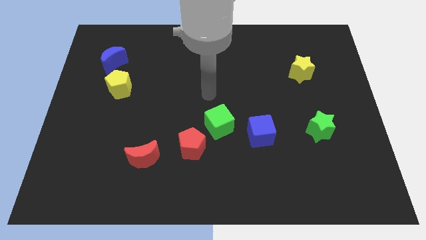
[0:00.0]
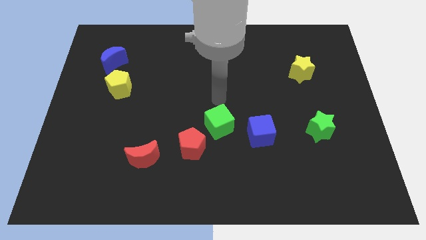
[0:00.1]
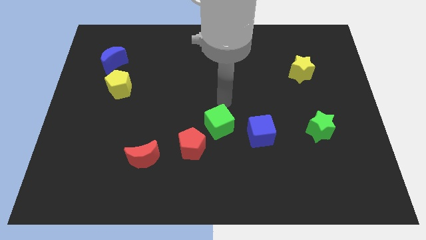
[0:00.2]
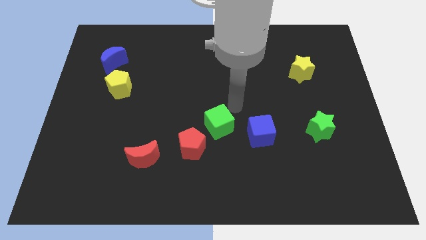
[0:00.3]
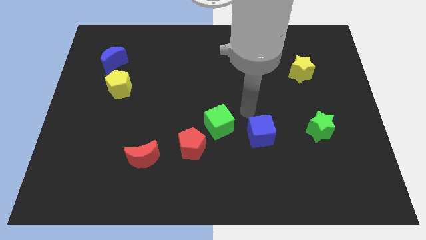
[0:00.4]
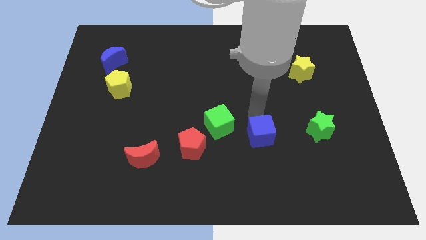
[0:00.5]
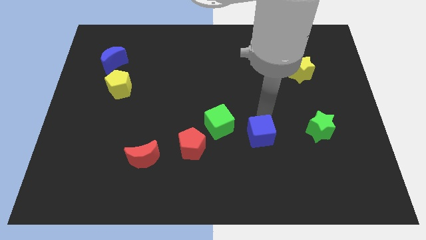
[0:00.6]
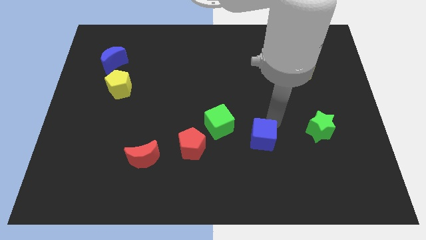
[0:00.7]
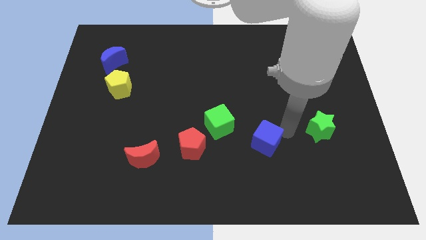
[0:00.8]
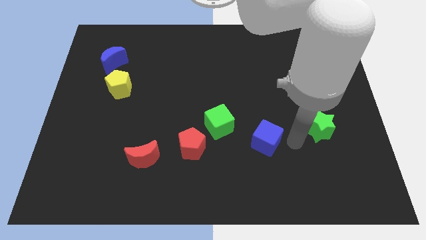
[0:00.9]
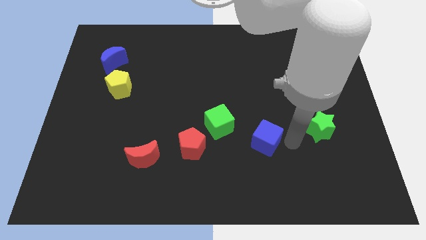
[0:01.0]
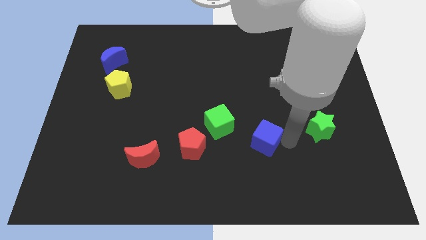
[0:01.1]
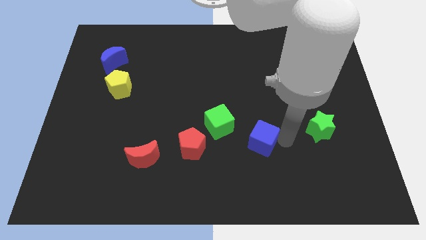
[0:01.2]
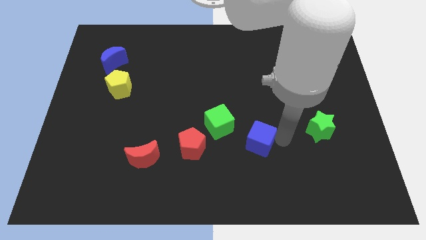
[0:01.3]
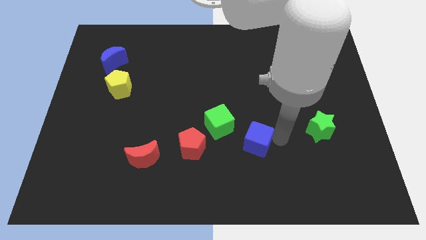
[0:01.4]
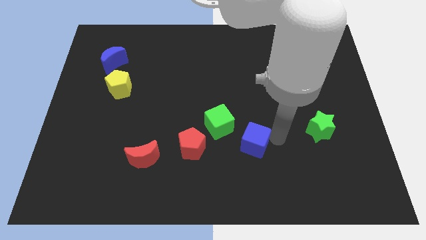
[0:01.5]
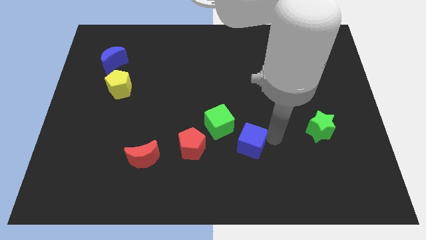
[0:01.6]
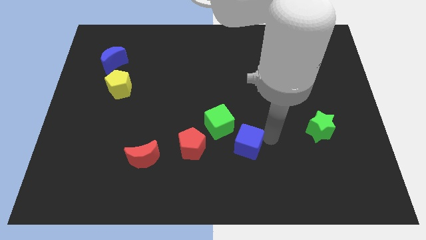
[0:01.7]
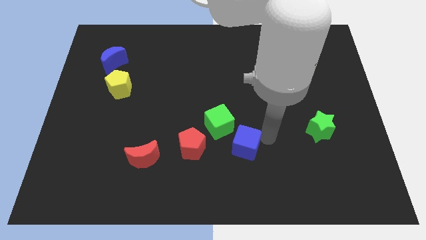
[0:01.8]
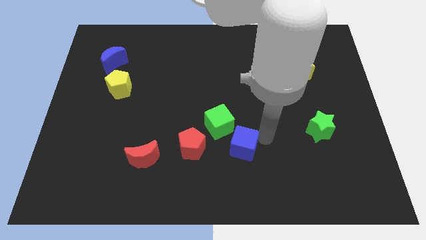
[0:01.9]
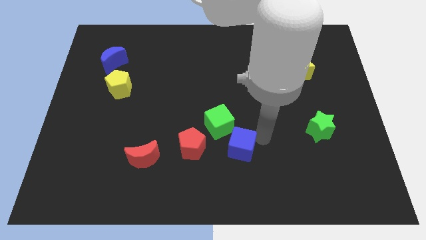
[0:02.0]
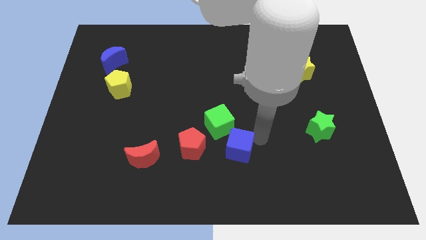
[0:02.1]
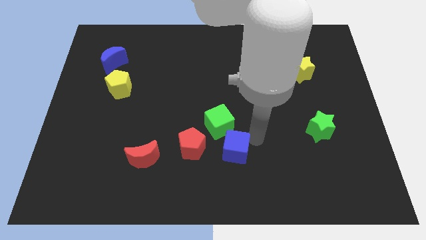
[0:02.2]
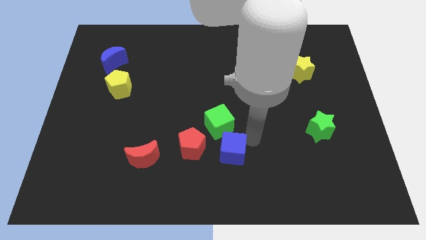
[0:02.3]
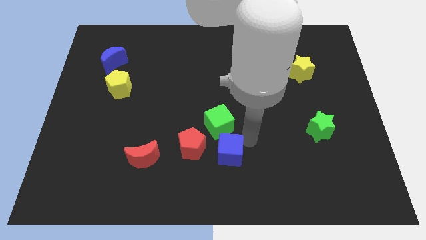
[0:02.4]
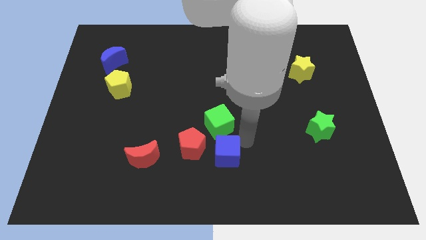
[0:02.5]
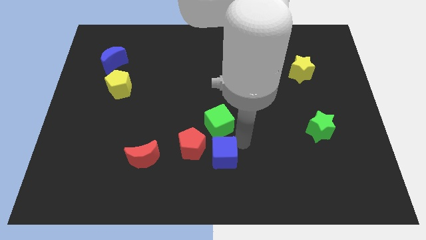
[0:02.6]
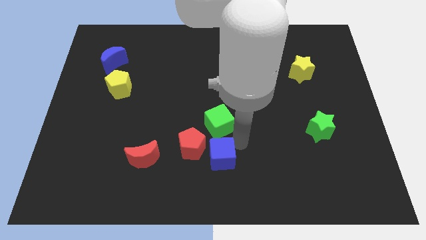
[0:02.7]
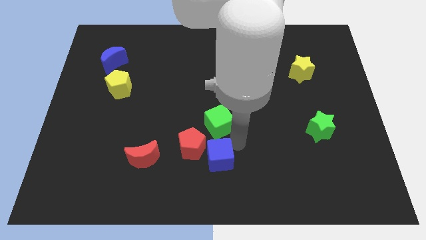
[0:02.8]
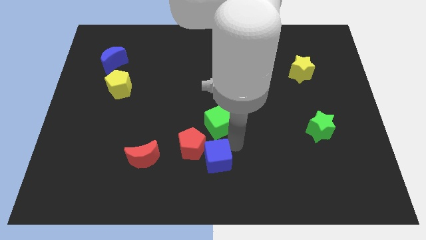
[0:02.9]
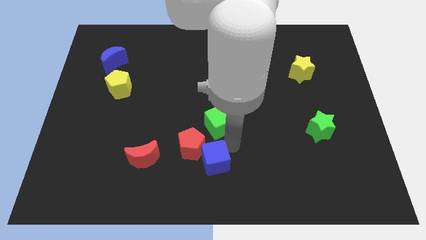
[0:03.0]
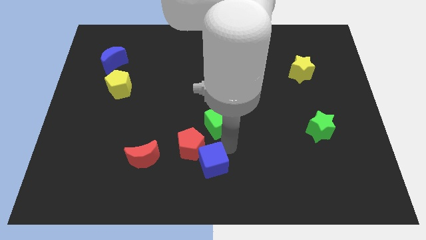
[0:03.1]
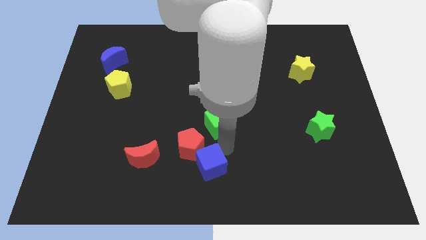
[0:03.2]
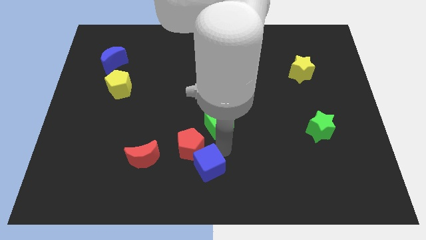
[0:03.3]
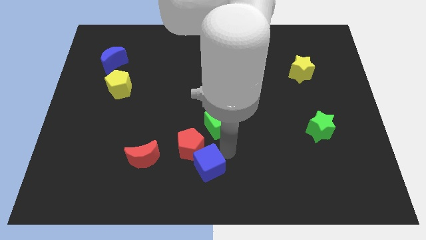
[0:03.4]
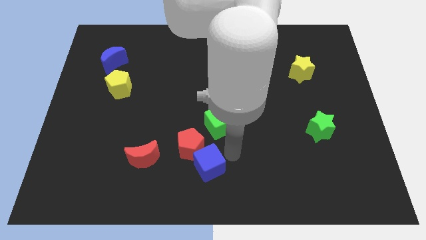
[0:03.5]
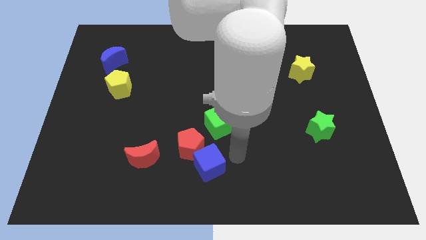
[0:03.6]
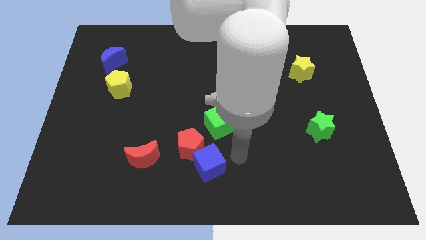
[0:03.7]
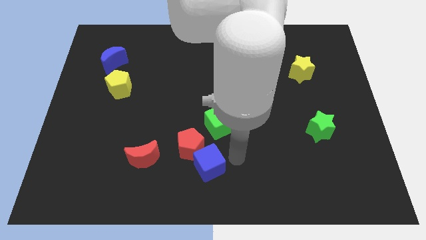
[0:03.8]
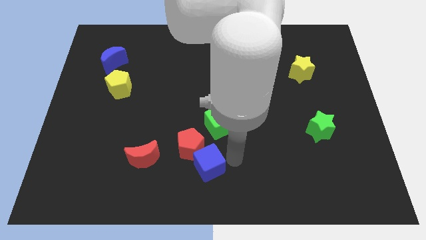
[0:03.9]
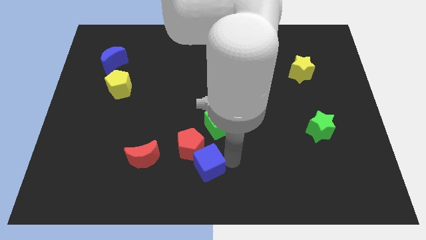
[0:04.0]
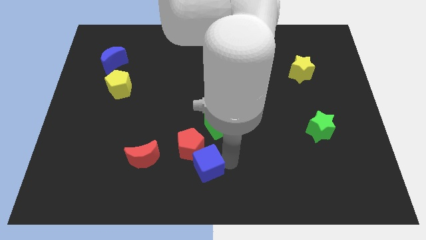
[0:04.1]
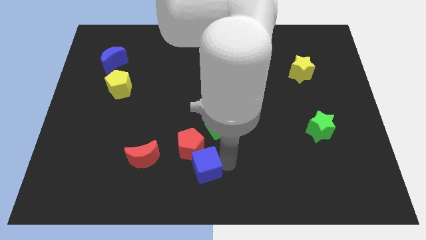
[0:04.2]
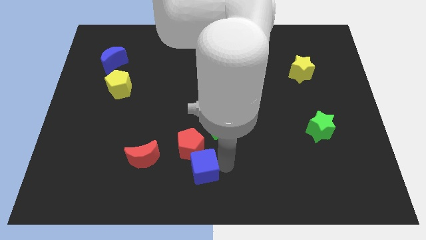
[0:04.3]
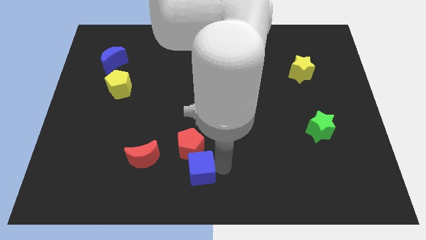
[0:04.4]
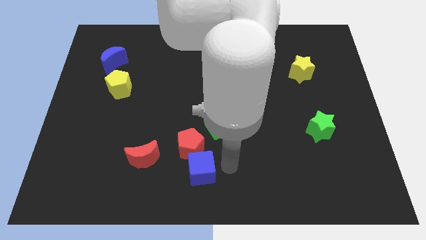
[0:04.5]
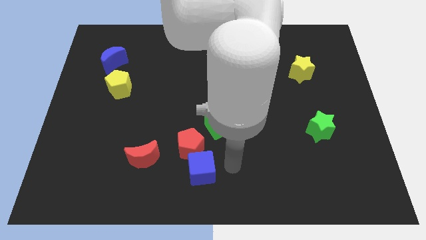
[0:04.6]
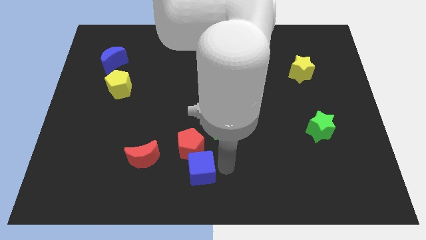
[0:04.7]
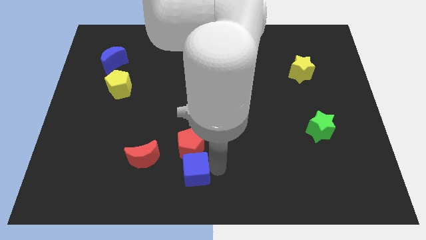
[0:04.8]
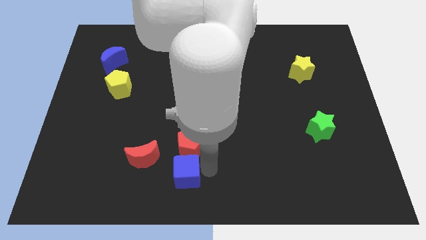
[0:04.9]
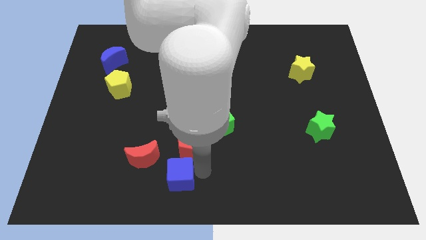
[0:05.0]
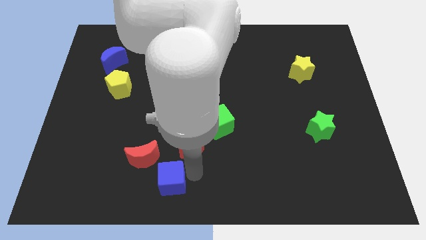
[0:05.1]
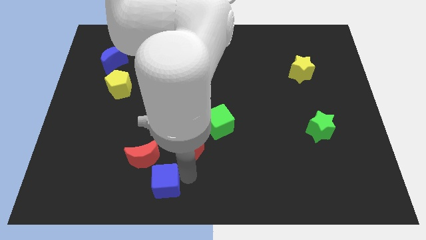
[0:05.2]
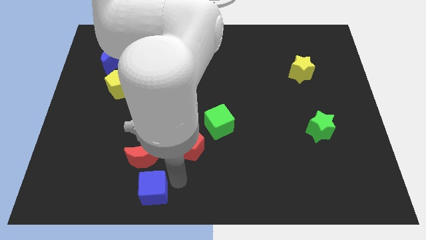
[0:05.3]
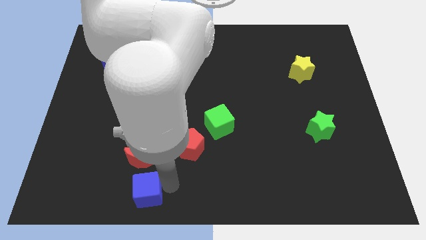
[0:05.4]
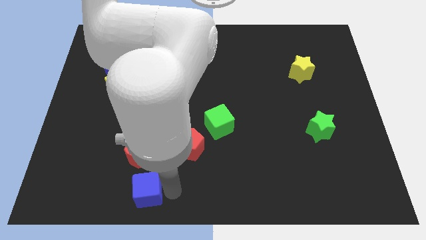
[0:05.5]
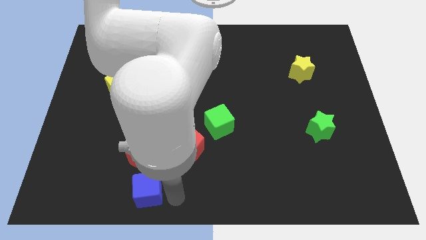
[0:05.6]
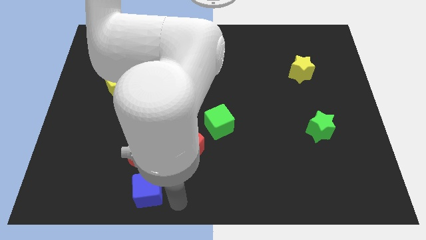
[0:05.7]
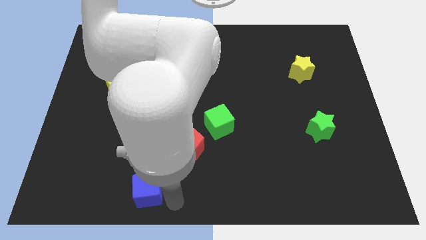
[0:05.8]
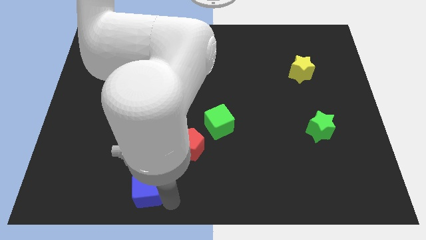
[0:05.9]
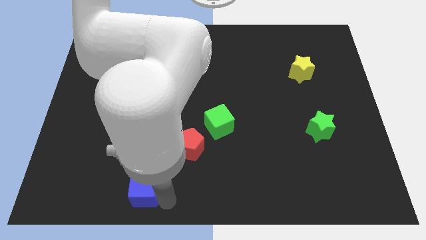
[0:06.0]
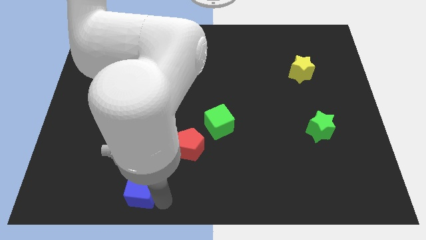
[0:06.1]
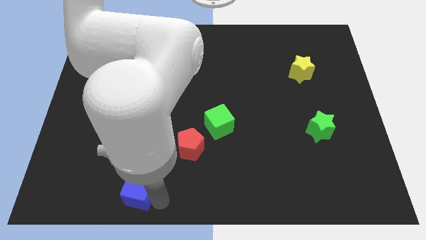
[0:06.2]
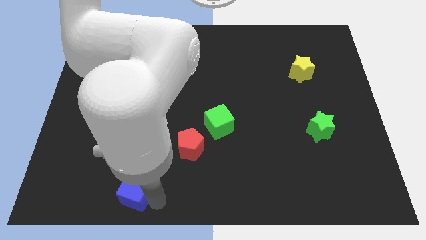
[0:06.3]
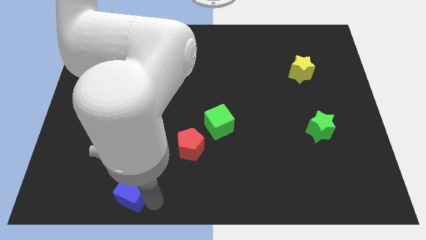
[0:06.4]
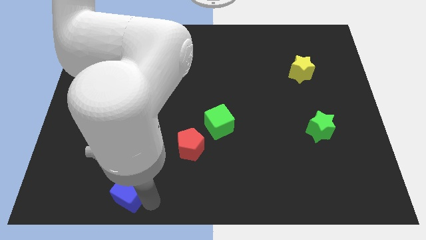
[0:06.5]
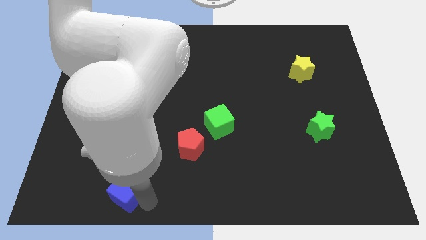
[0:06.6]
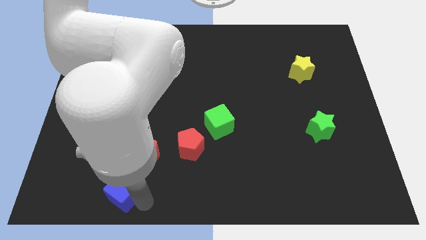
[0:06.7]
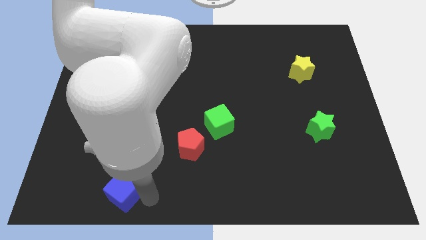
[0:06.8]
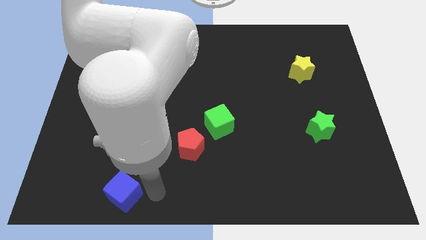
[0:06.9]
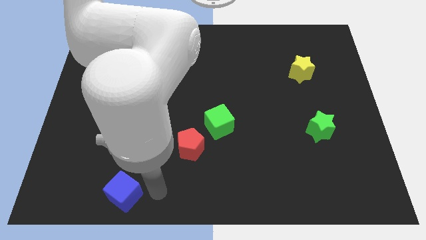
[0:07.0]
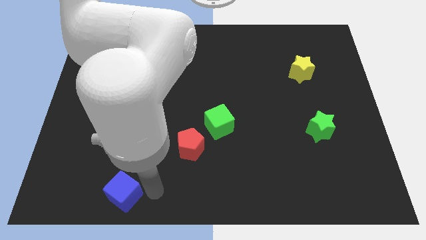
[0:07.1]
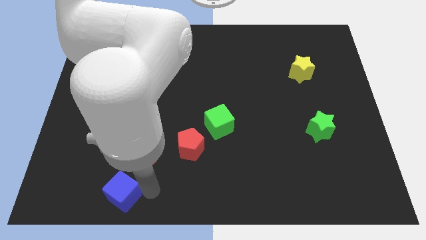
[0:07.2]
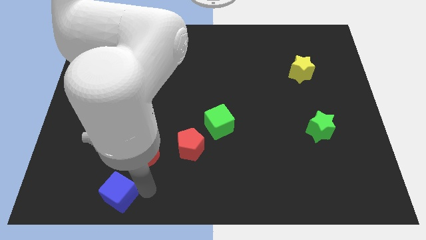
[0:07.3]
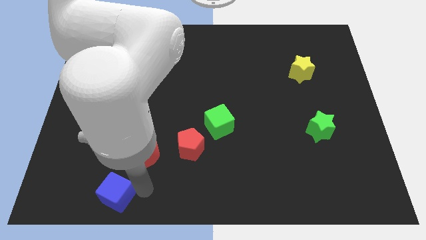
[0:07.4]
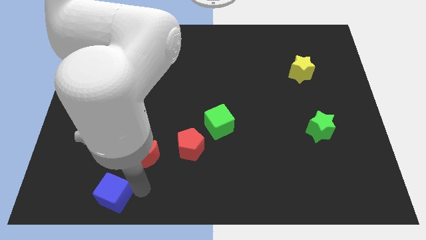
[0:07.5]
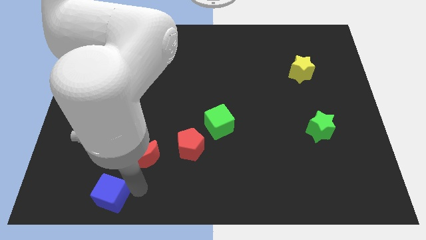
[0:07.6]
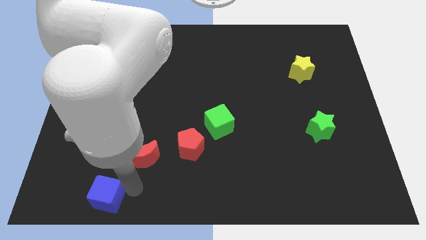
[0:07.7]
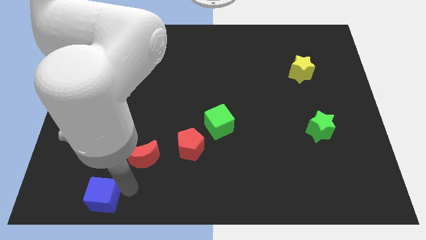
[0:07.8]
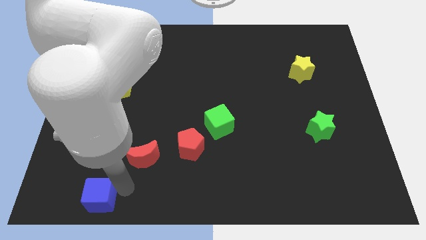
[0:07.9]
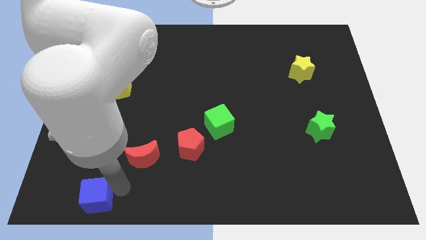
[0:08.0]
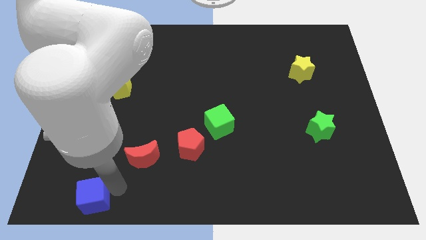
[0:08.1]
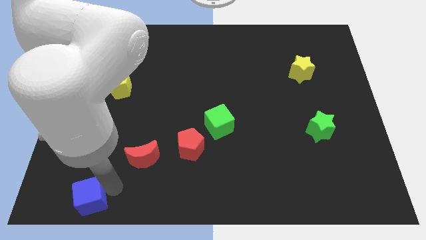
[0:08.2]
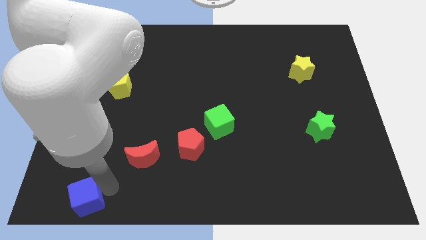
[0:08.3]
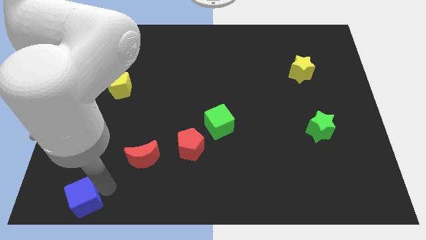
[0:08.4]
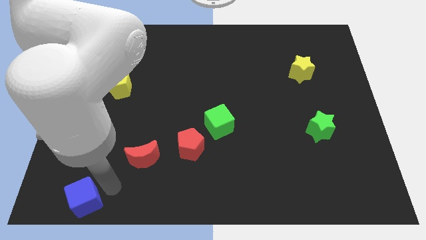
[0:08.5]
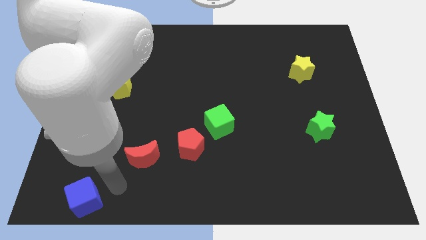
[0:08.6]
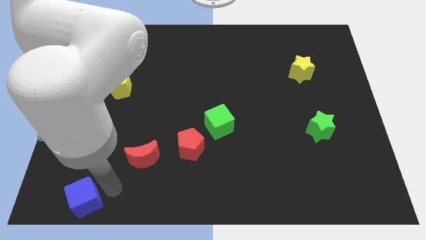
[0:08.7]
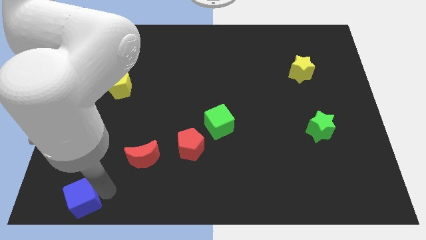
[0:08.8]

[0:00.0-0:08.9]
slide the blue cube to the lower left corner
